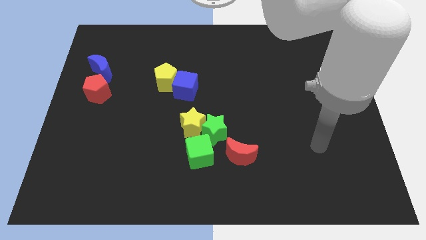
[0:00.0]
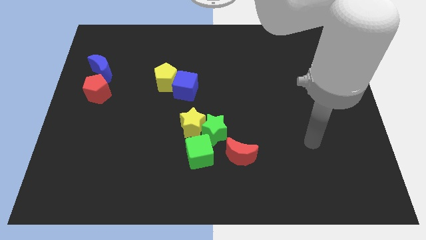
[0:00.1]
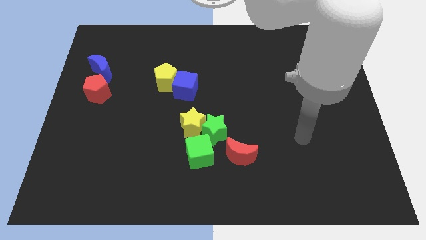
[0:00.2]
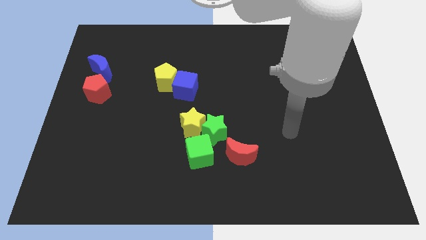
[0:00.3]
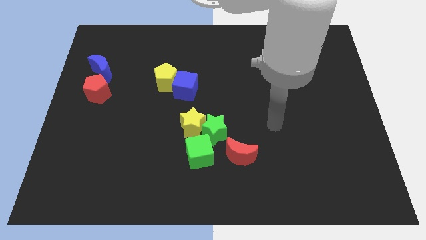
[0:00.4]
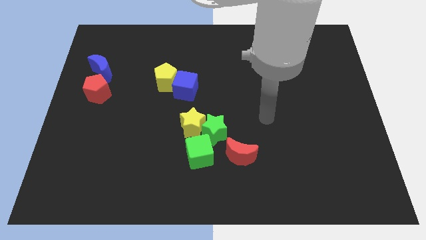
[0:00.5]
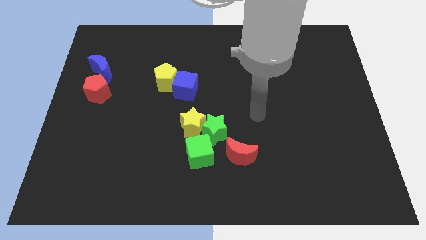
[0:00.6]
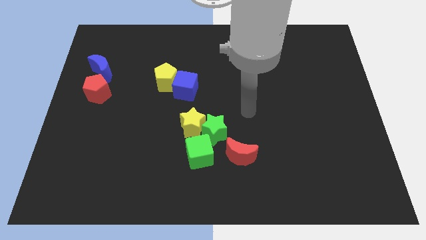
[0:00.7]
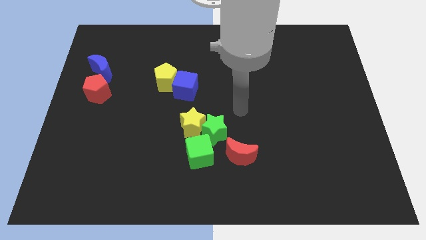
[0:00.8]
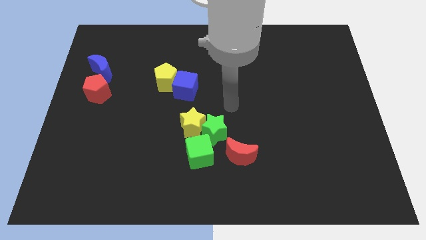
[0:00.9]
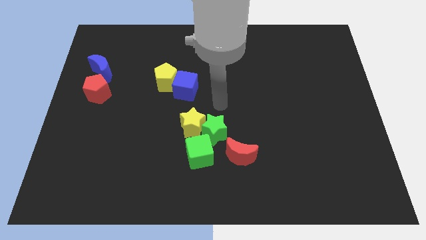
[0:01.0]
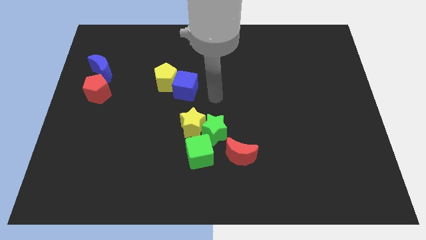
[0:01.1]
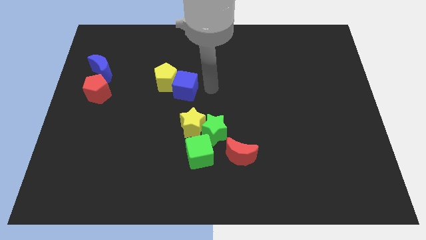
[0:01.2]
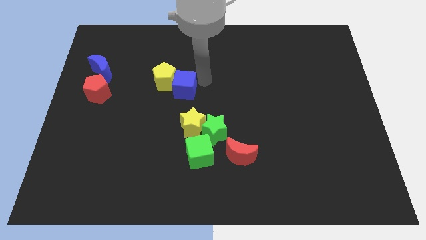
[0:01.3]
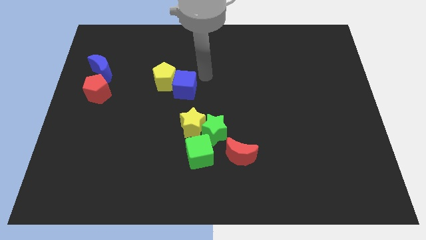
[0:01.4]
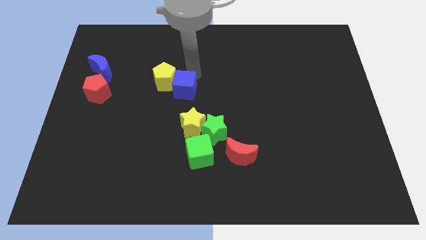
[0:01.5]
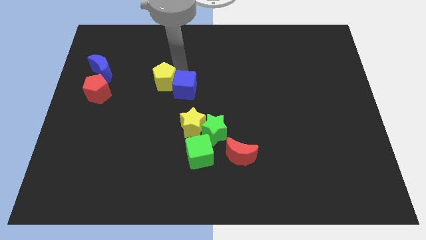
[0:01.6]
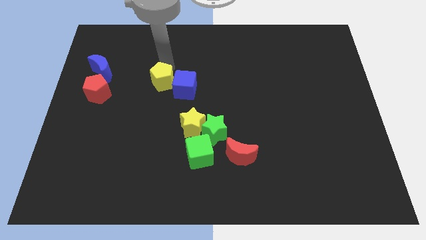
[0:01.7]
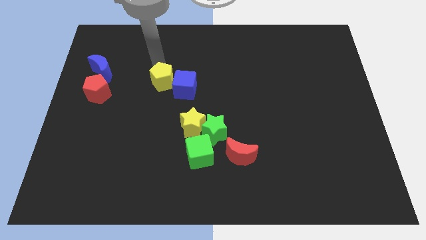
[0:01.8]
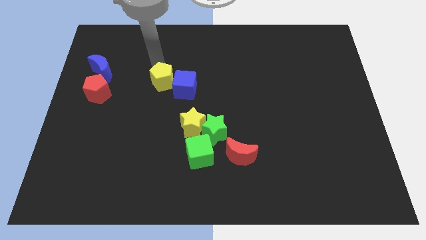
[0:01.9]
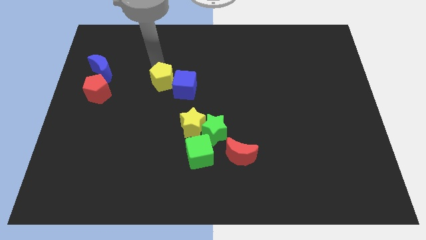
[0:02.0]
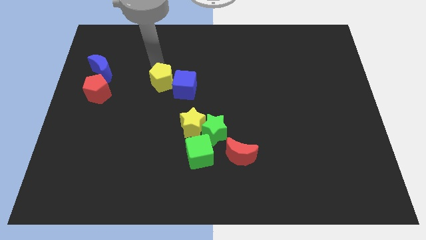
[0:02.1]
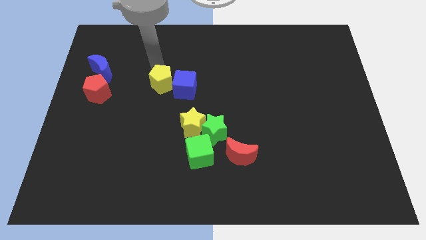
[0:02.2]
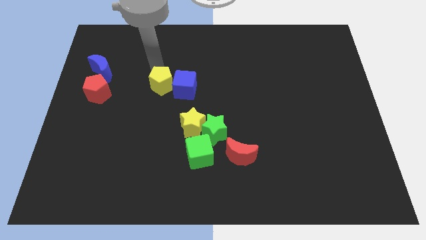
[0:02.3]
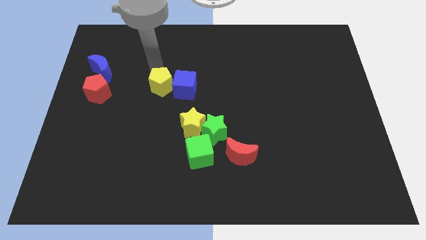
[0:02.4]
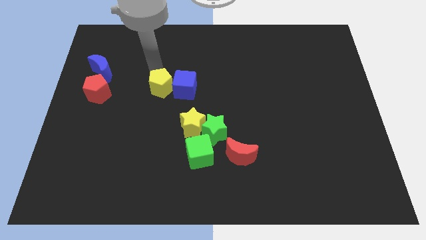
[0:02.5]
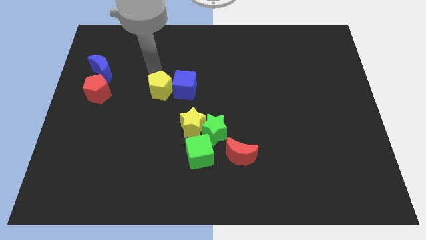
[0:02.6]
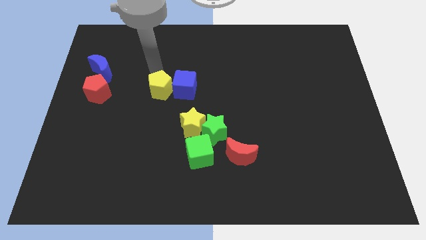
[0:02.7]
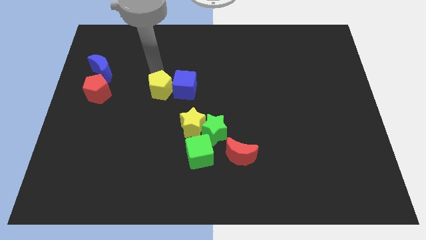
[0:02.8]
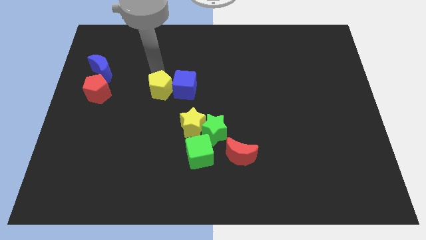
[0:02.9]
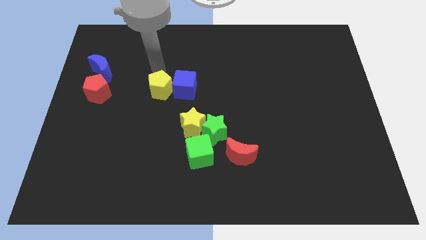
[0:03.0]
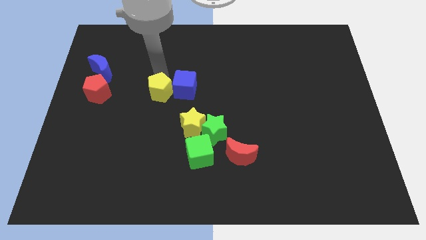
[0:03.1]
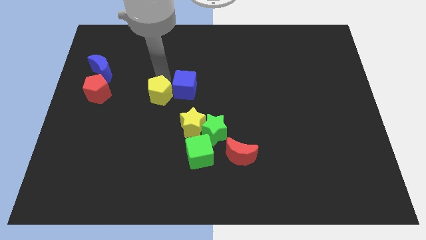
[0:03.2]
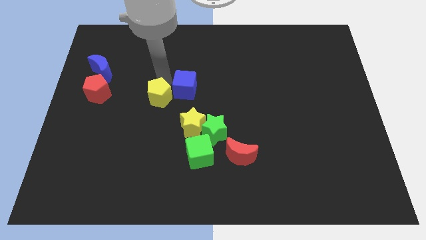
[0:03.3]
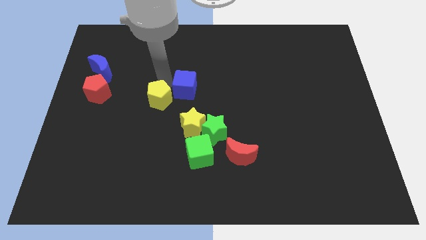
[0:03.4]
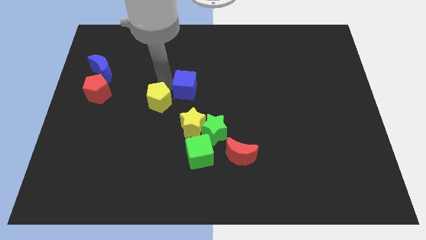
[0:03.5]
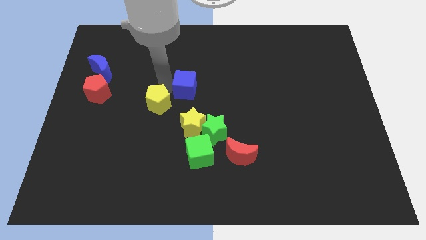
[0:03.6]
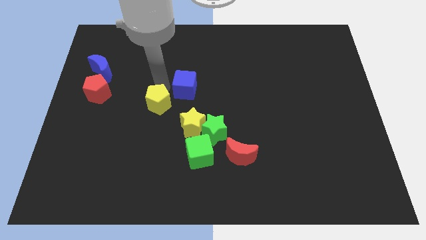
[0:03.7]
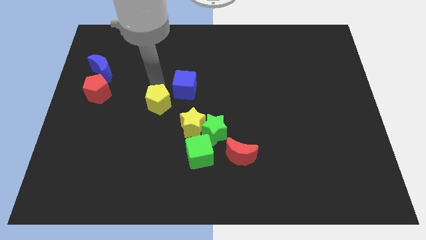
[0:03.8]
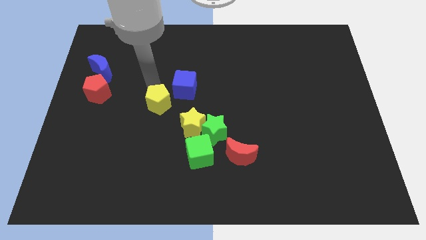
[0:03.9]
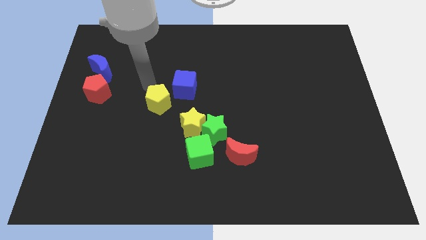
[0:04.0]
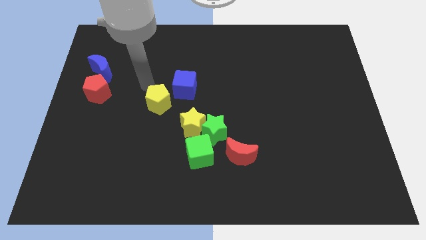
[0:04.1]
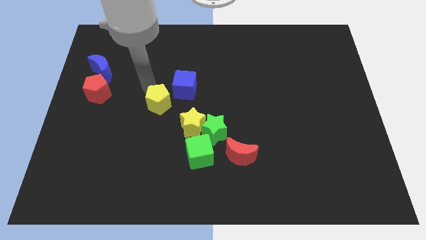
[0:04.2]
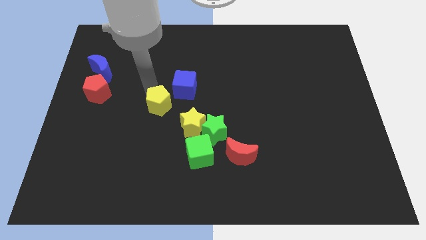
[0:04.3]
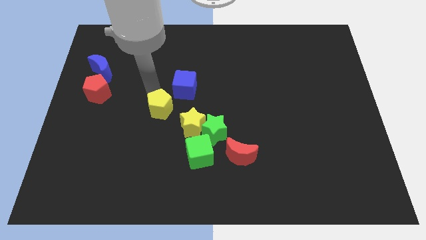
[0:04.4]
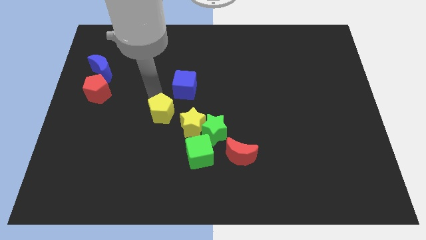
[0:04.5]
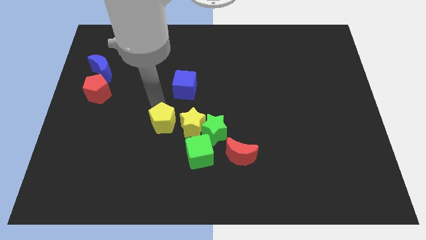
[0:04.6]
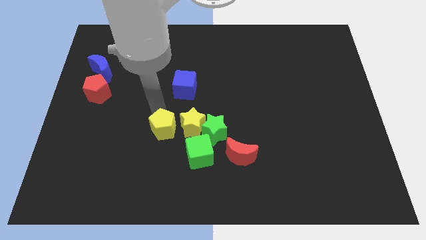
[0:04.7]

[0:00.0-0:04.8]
push the yellow pentagon to the yellow star

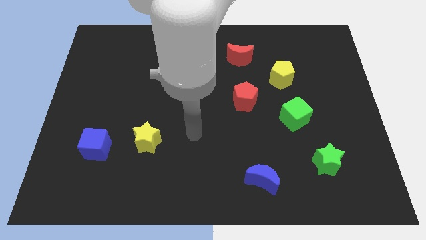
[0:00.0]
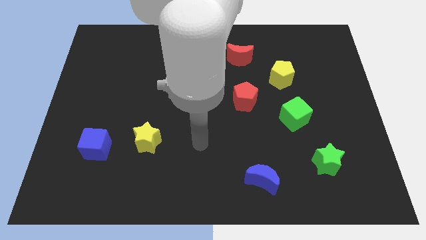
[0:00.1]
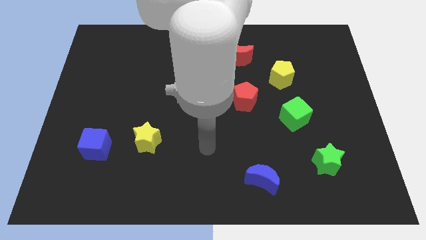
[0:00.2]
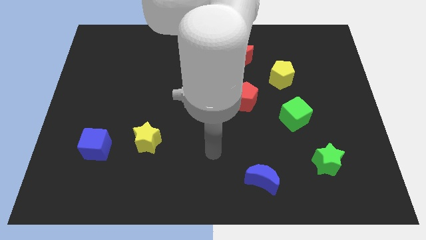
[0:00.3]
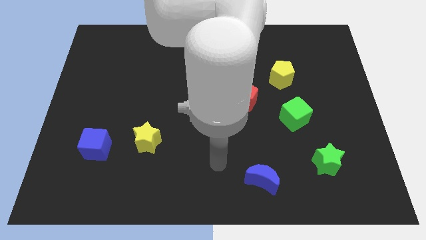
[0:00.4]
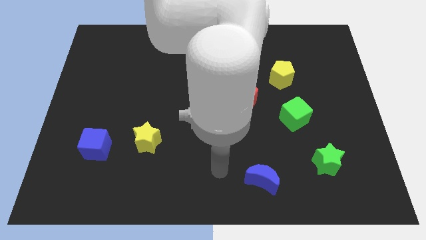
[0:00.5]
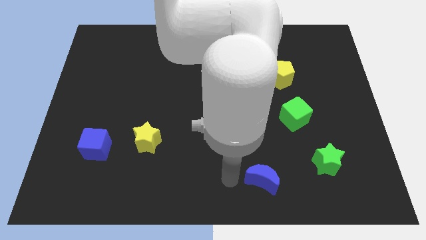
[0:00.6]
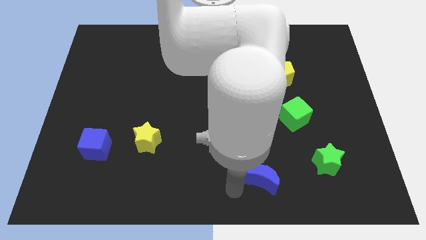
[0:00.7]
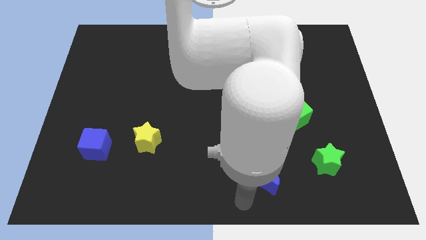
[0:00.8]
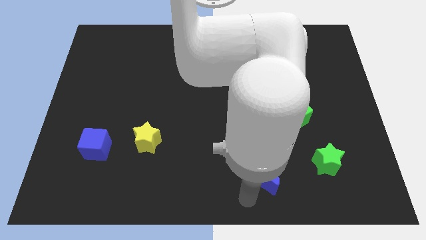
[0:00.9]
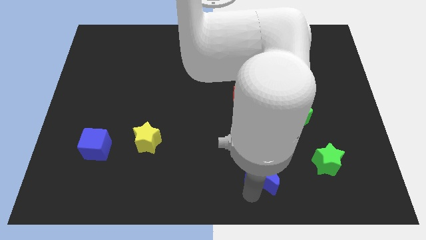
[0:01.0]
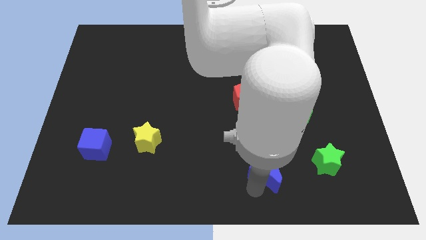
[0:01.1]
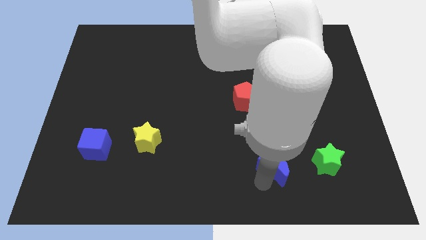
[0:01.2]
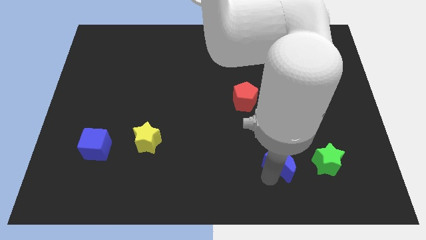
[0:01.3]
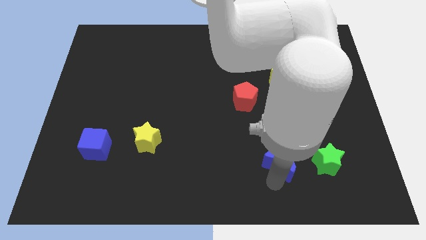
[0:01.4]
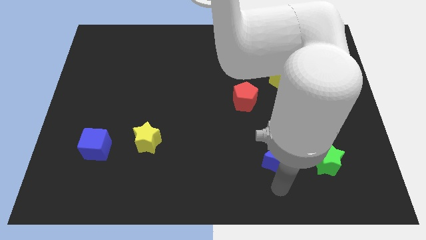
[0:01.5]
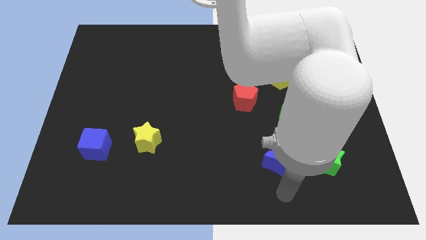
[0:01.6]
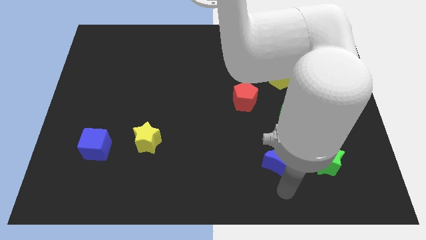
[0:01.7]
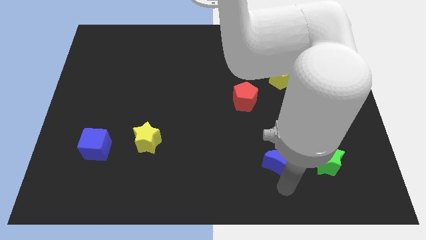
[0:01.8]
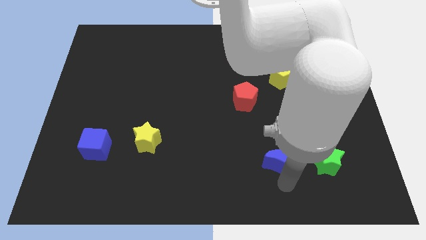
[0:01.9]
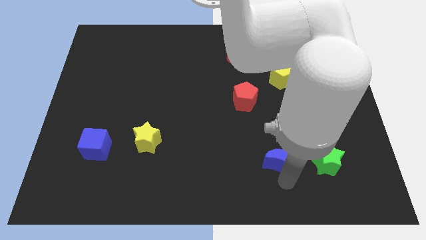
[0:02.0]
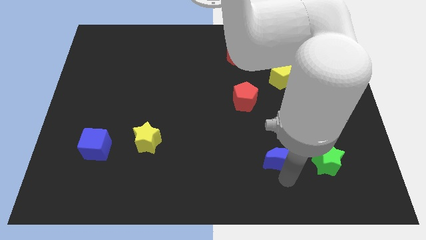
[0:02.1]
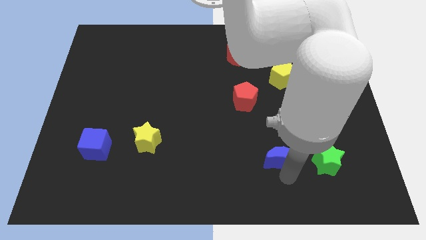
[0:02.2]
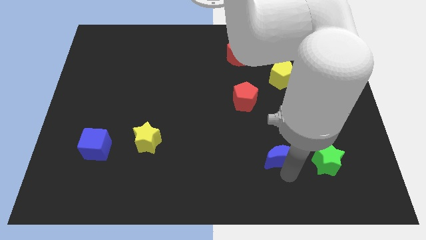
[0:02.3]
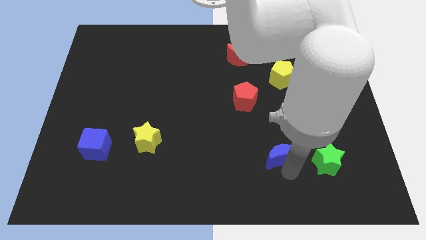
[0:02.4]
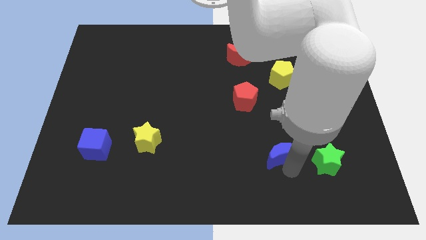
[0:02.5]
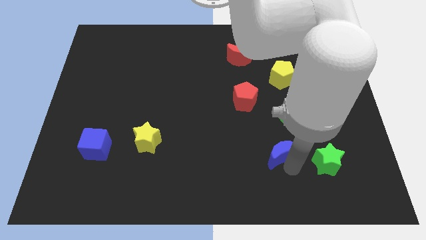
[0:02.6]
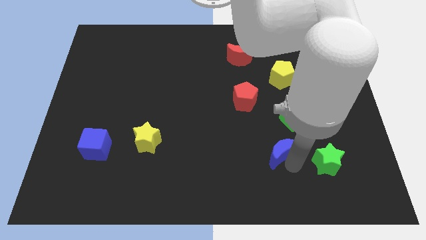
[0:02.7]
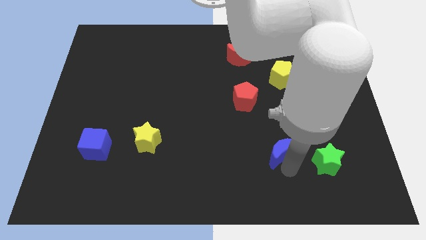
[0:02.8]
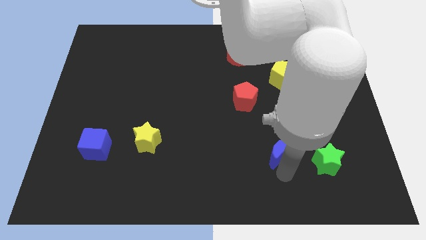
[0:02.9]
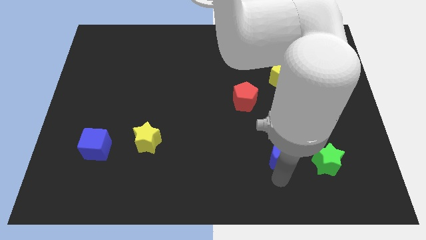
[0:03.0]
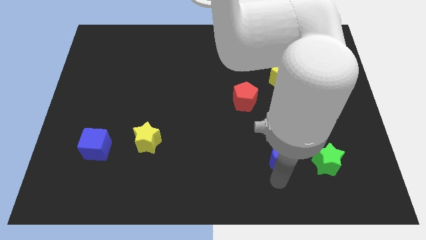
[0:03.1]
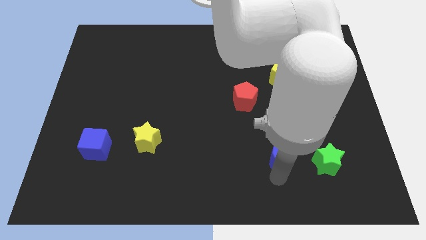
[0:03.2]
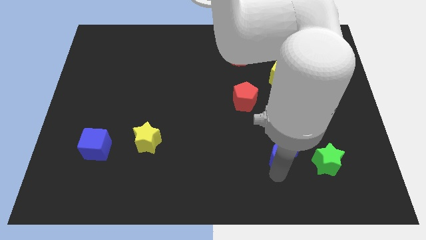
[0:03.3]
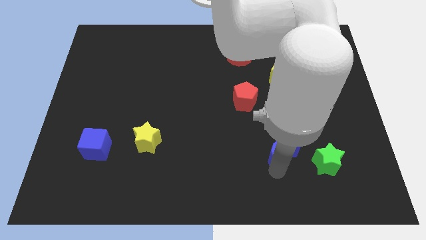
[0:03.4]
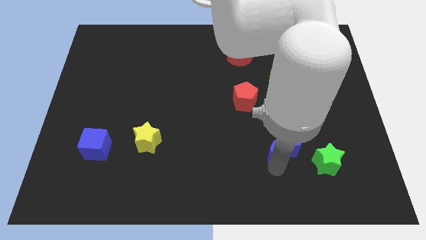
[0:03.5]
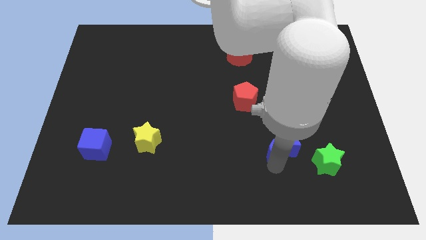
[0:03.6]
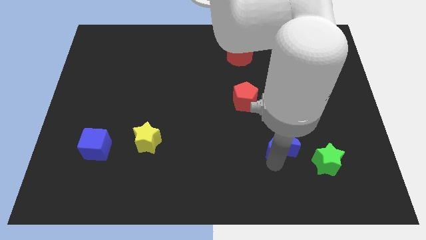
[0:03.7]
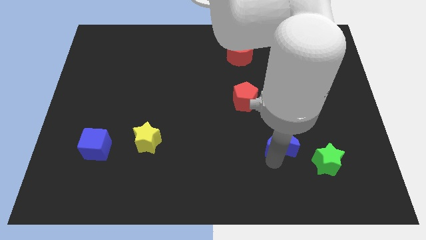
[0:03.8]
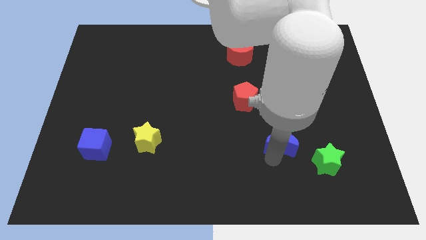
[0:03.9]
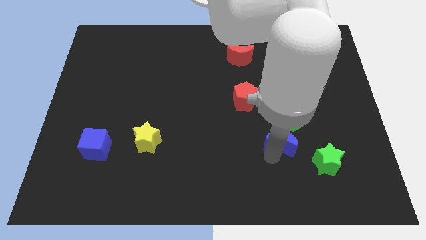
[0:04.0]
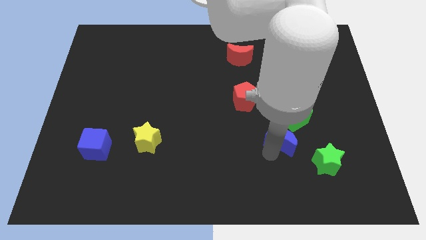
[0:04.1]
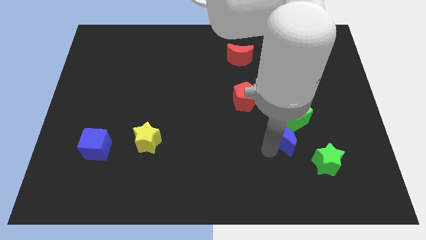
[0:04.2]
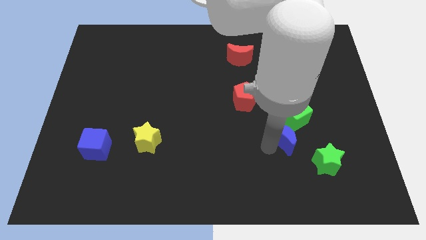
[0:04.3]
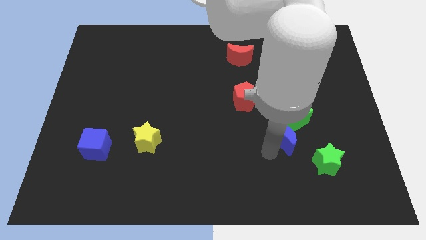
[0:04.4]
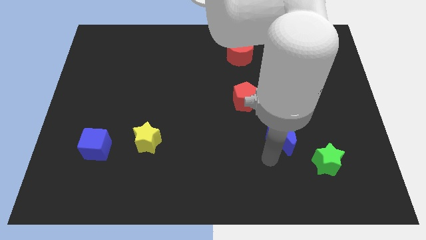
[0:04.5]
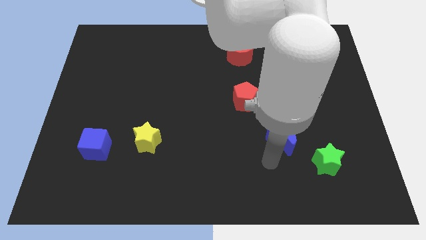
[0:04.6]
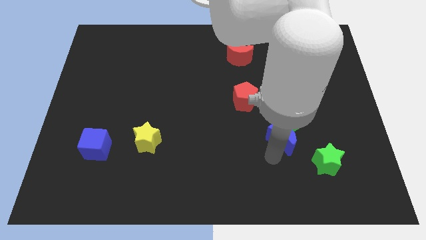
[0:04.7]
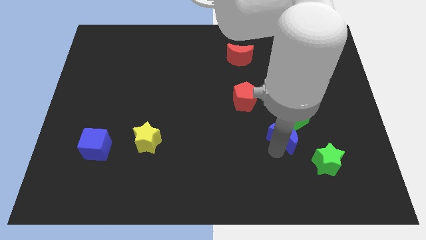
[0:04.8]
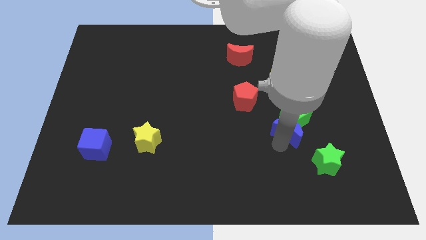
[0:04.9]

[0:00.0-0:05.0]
slide the blue moon next to the green cube
